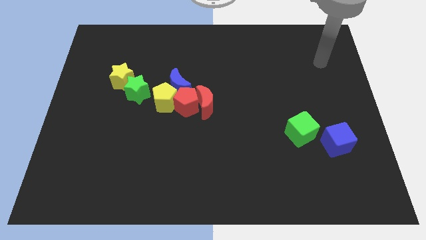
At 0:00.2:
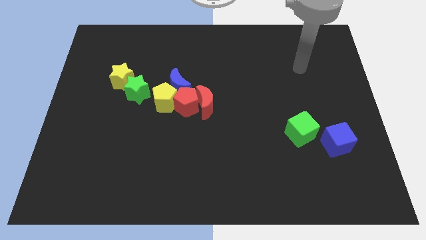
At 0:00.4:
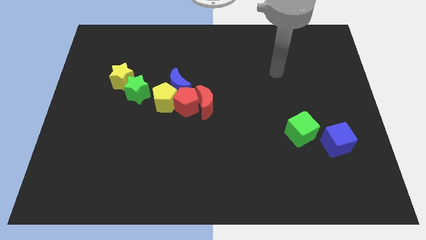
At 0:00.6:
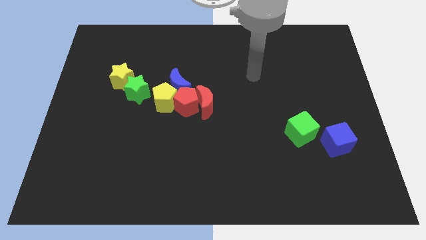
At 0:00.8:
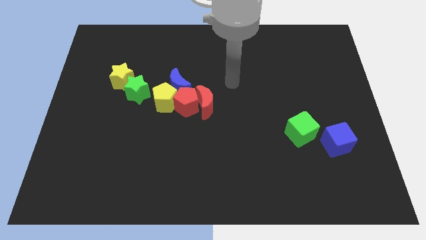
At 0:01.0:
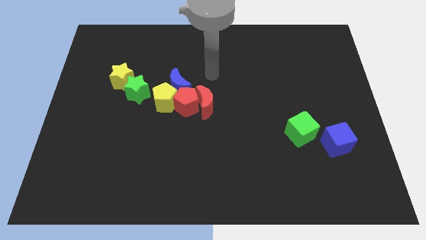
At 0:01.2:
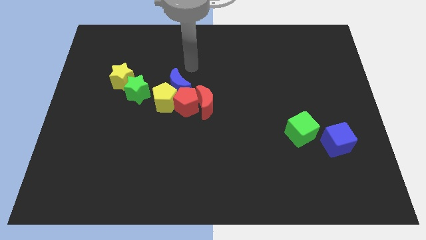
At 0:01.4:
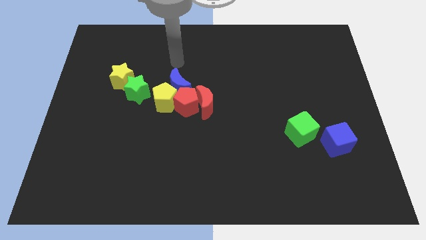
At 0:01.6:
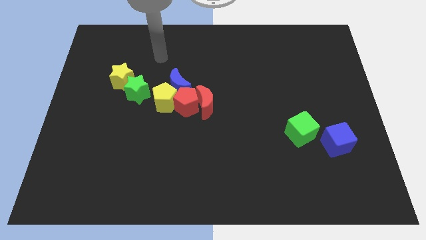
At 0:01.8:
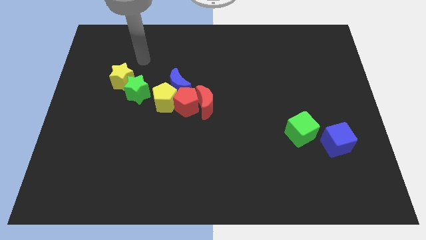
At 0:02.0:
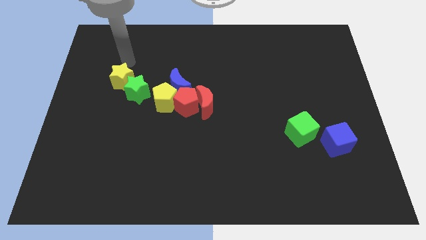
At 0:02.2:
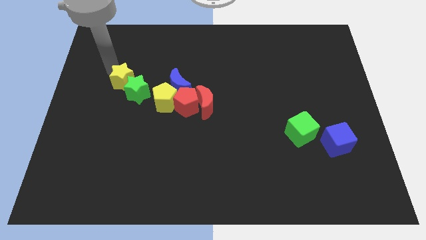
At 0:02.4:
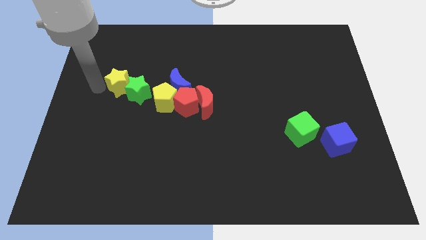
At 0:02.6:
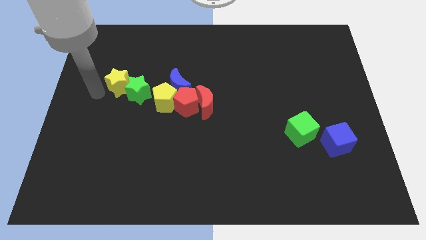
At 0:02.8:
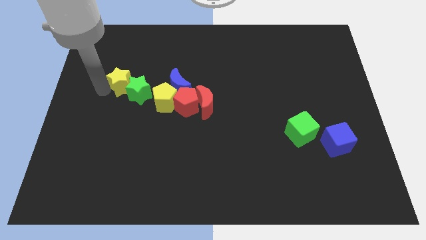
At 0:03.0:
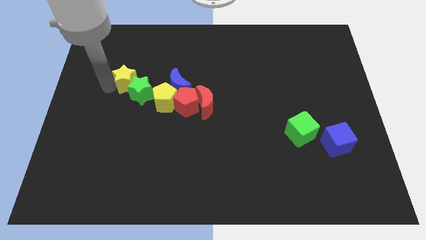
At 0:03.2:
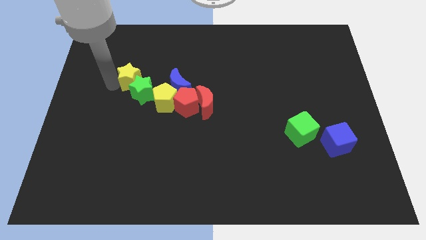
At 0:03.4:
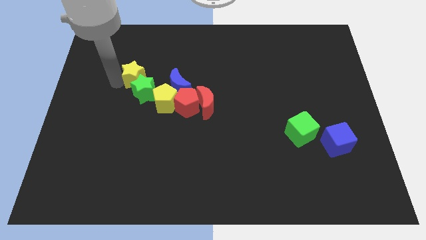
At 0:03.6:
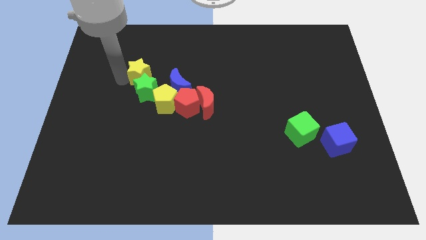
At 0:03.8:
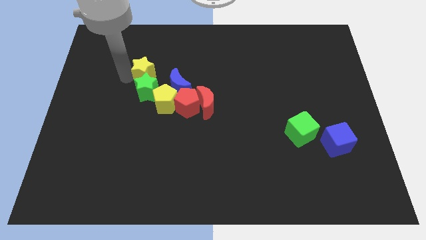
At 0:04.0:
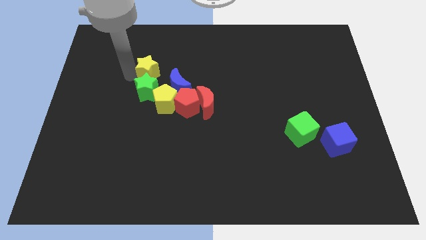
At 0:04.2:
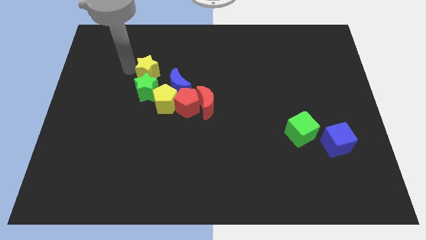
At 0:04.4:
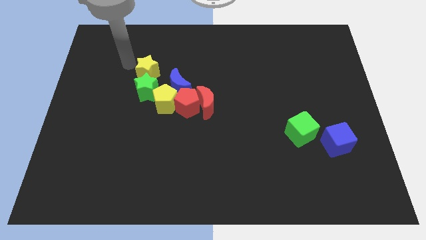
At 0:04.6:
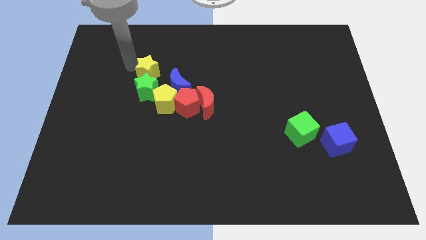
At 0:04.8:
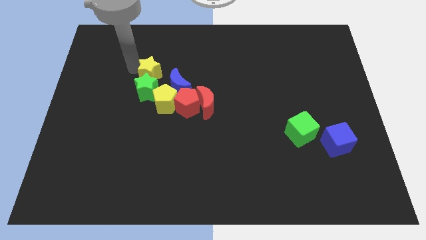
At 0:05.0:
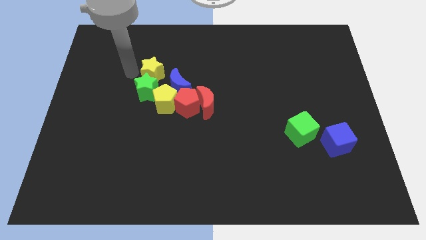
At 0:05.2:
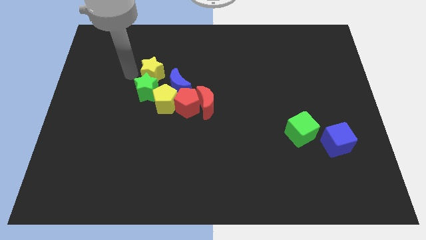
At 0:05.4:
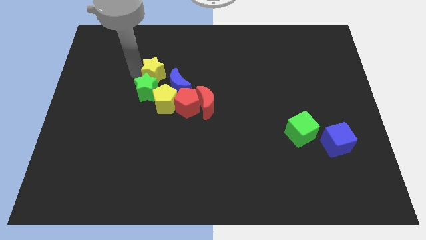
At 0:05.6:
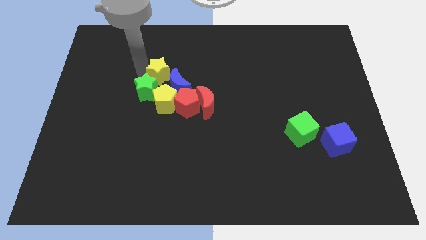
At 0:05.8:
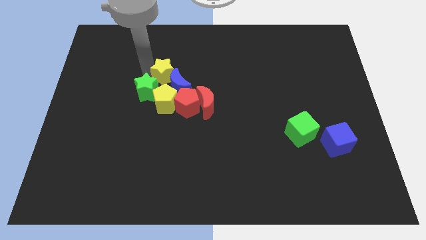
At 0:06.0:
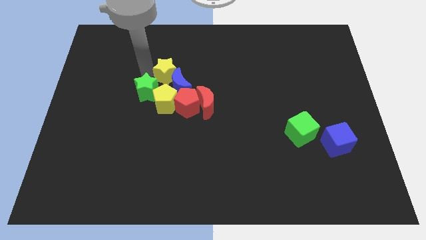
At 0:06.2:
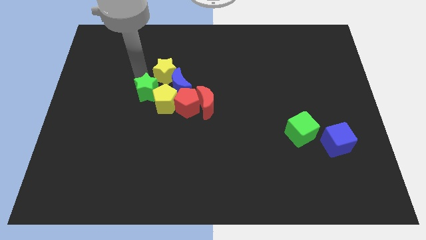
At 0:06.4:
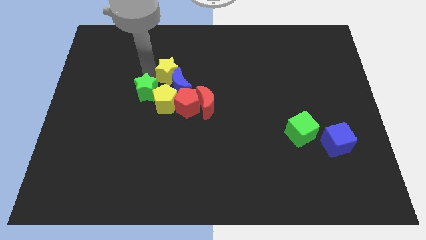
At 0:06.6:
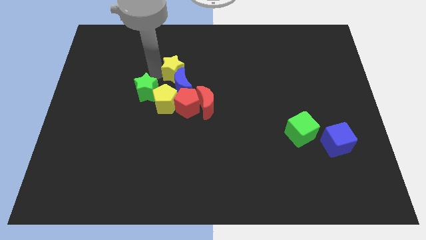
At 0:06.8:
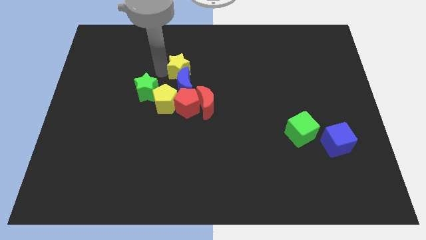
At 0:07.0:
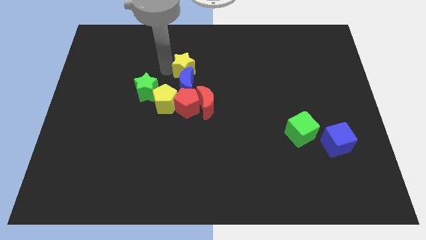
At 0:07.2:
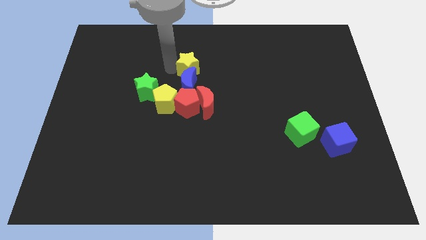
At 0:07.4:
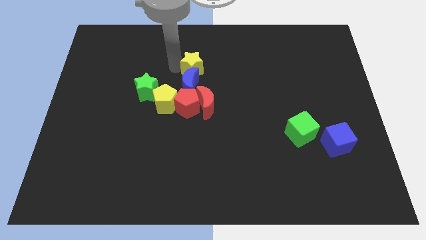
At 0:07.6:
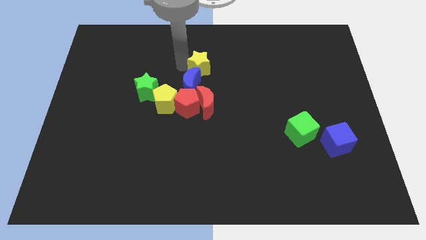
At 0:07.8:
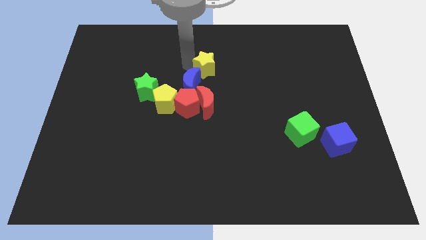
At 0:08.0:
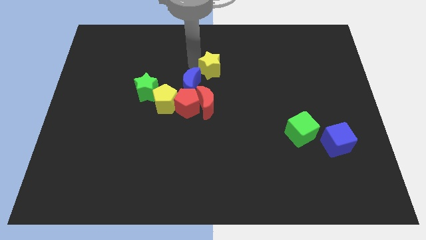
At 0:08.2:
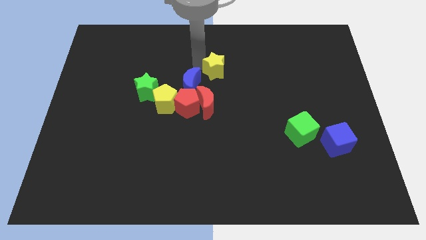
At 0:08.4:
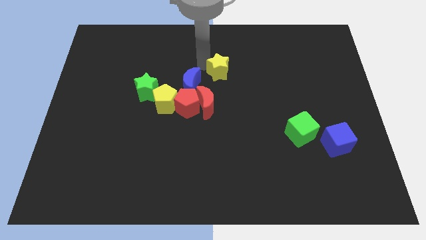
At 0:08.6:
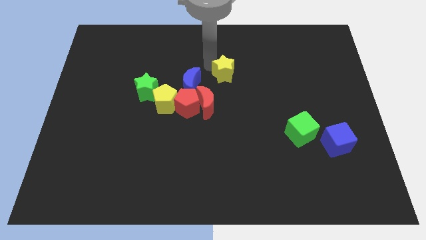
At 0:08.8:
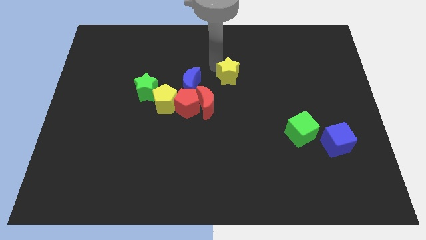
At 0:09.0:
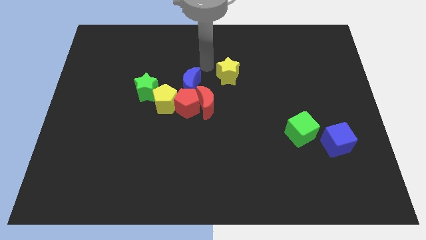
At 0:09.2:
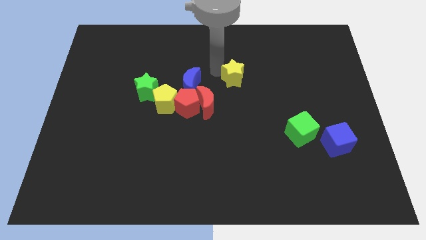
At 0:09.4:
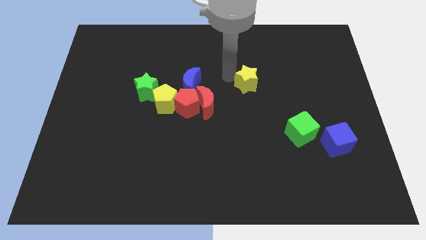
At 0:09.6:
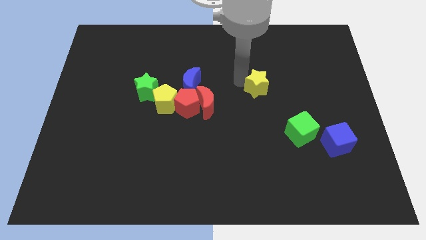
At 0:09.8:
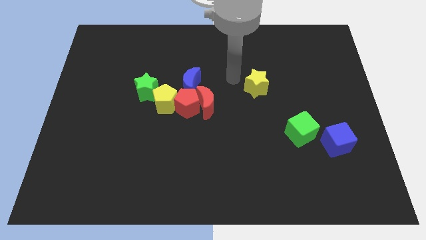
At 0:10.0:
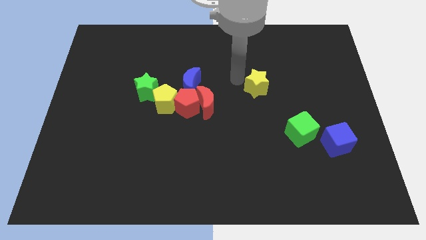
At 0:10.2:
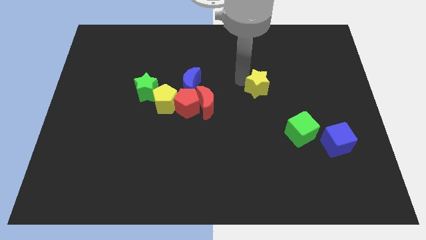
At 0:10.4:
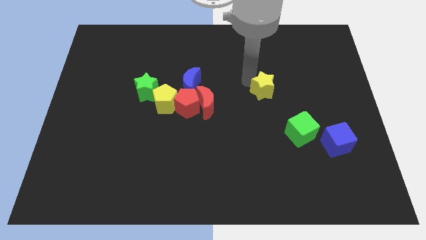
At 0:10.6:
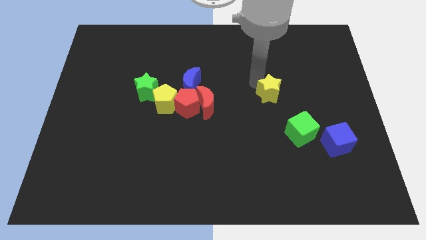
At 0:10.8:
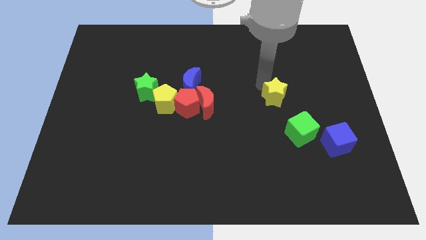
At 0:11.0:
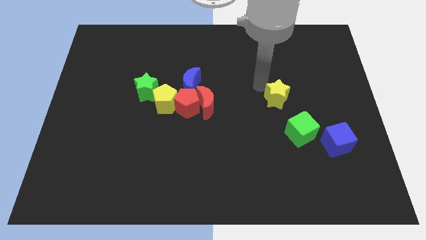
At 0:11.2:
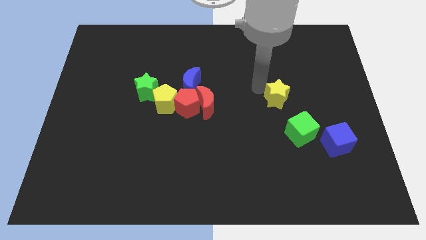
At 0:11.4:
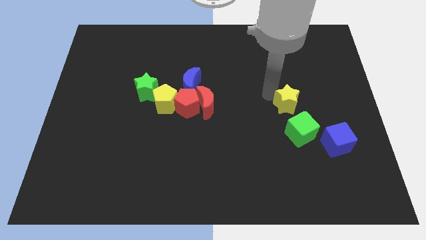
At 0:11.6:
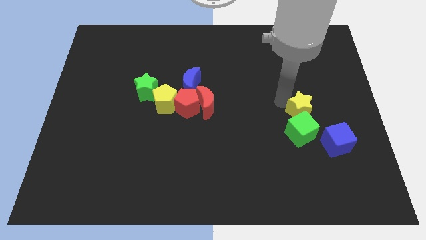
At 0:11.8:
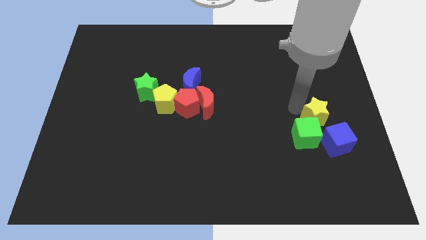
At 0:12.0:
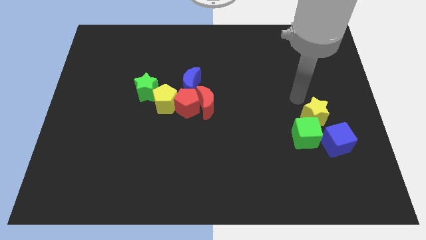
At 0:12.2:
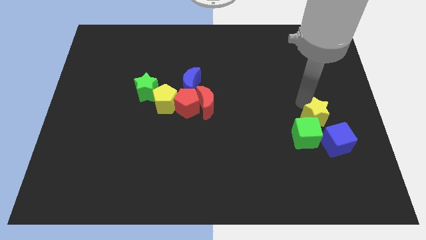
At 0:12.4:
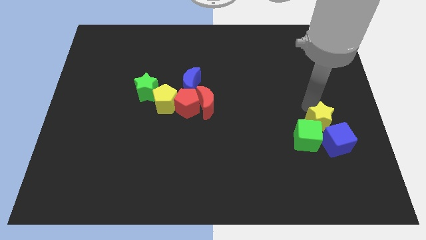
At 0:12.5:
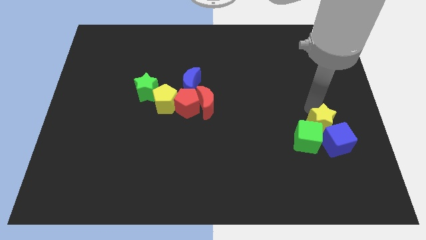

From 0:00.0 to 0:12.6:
push the yellow star towards the blue cube

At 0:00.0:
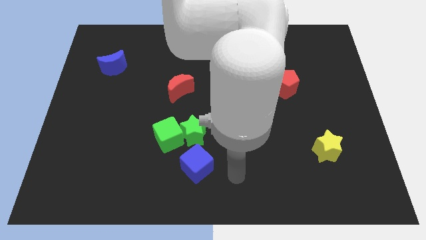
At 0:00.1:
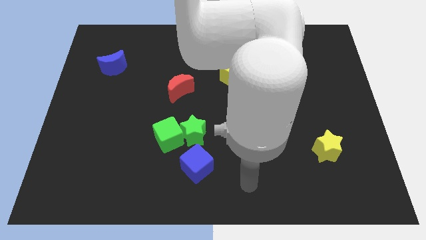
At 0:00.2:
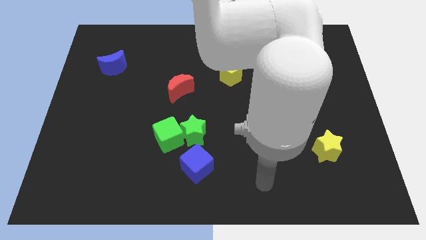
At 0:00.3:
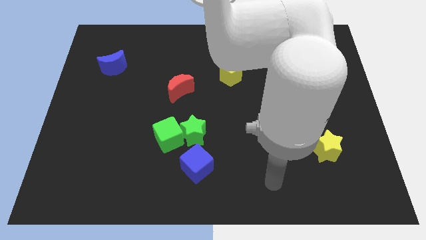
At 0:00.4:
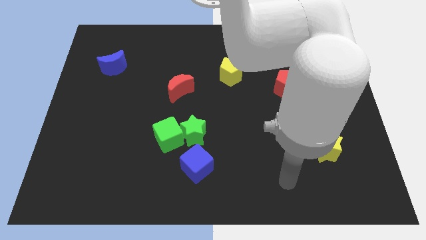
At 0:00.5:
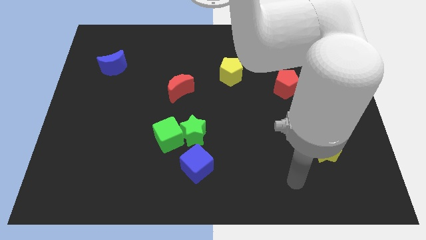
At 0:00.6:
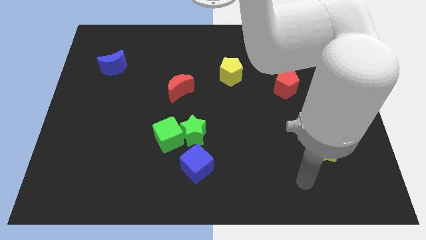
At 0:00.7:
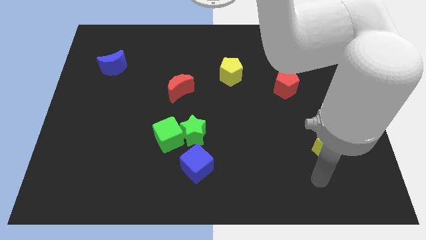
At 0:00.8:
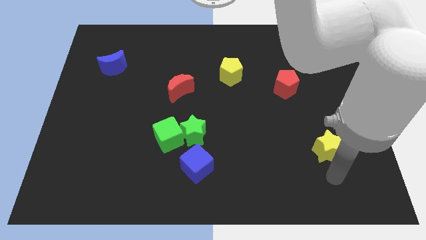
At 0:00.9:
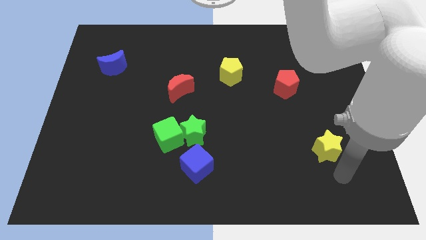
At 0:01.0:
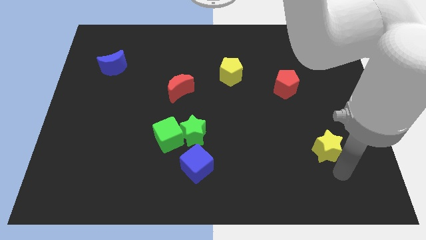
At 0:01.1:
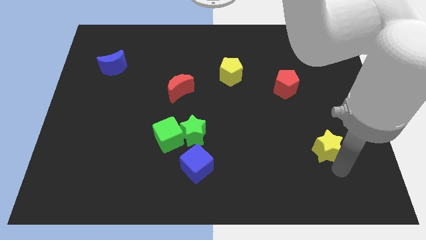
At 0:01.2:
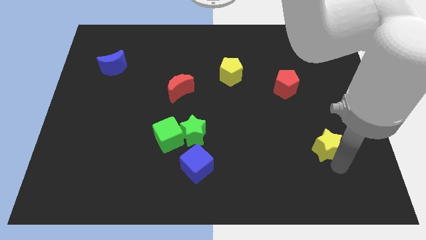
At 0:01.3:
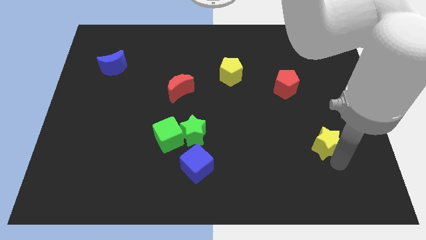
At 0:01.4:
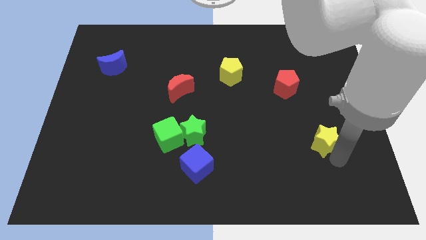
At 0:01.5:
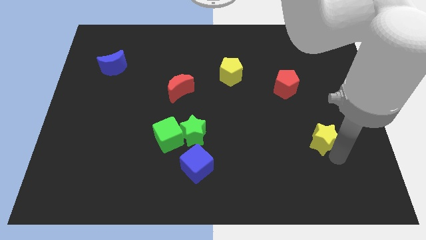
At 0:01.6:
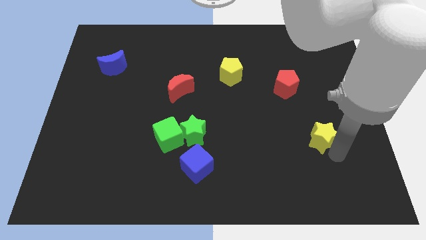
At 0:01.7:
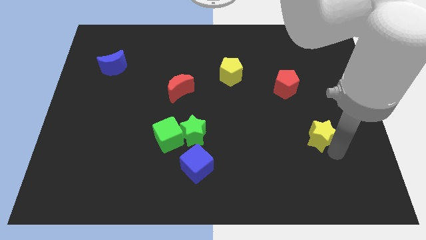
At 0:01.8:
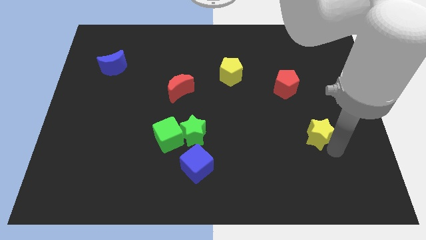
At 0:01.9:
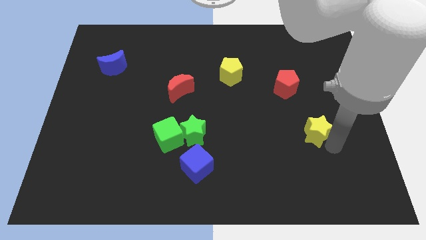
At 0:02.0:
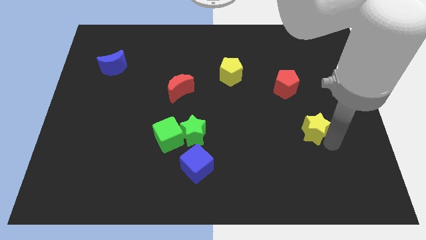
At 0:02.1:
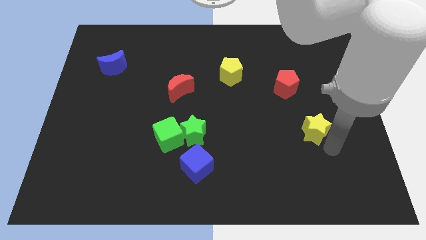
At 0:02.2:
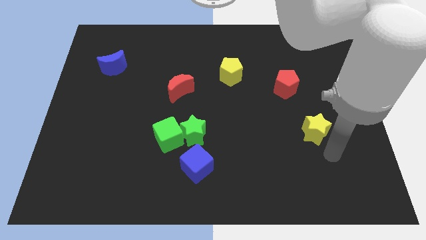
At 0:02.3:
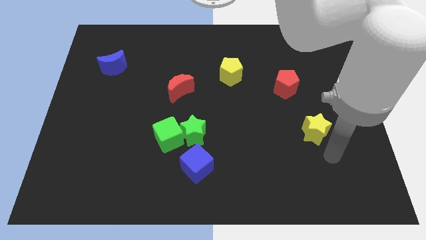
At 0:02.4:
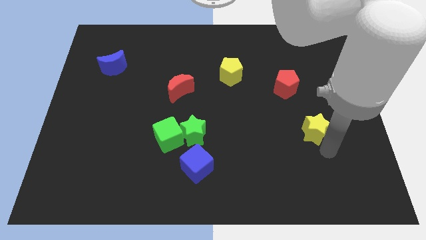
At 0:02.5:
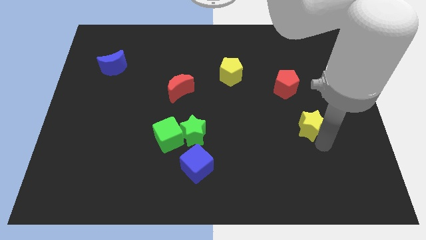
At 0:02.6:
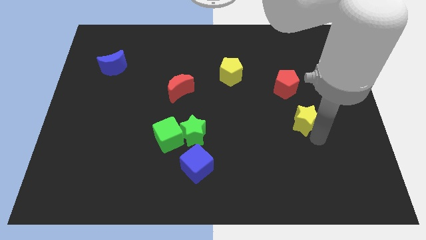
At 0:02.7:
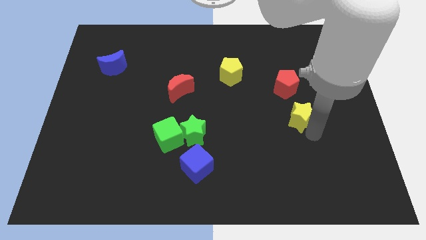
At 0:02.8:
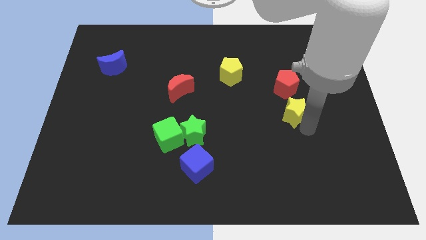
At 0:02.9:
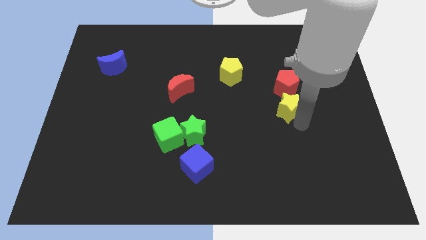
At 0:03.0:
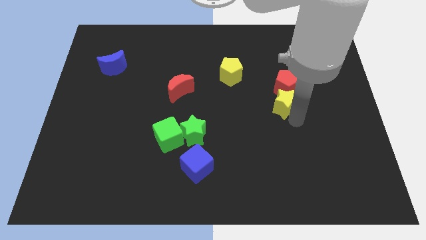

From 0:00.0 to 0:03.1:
push the yellow star to the red pentagon
